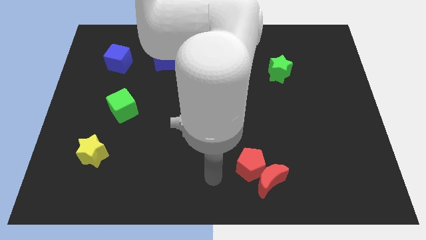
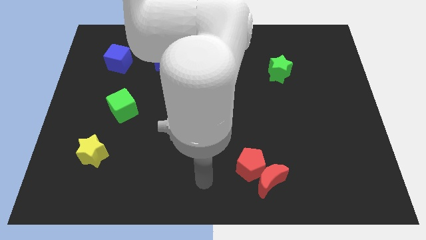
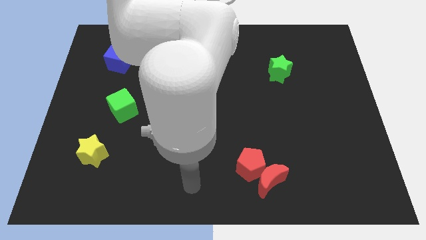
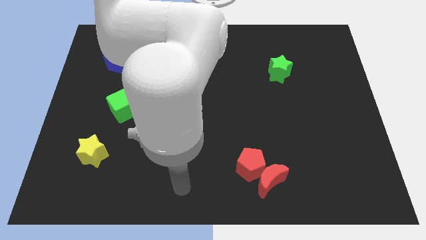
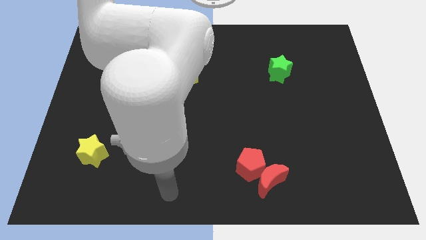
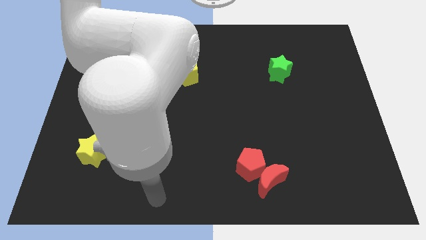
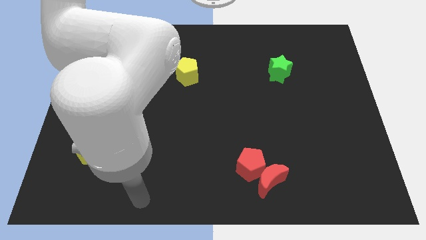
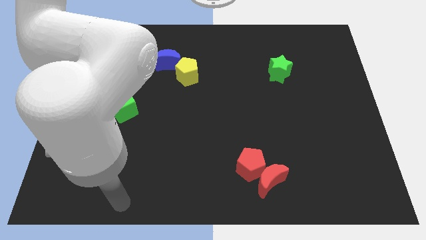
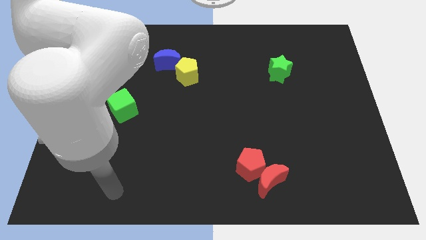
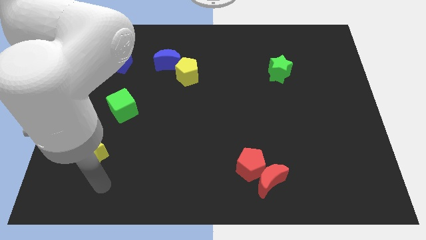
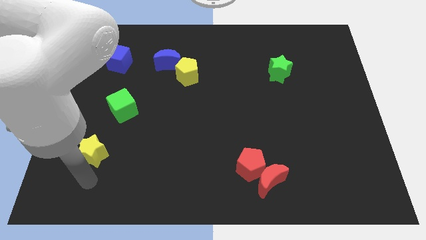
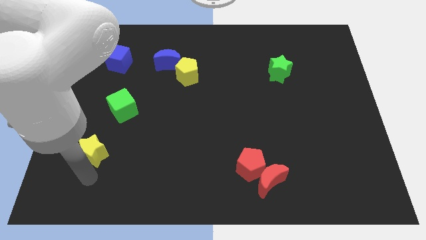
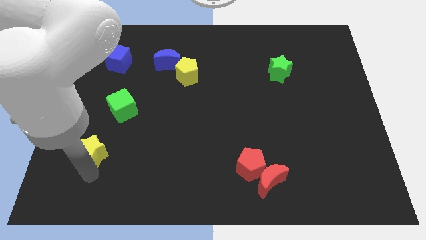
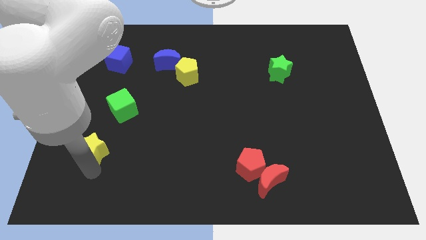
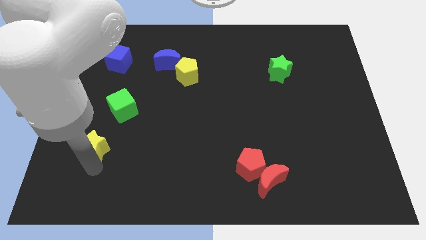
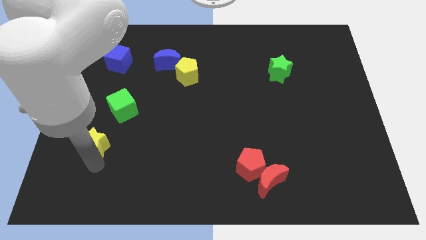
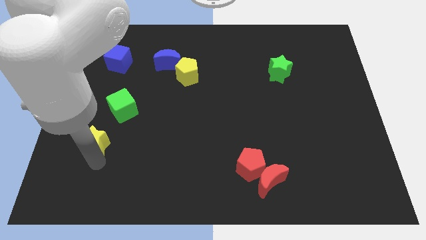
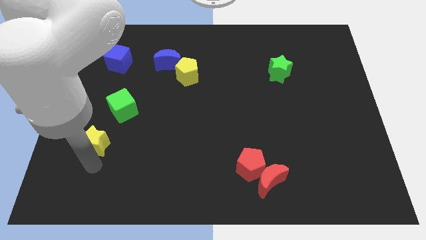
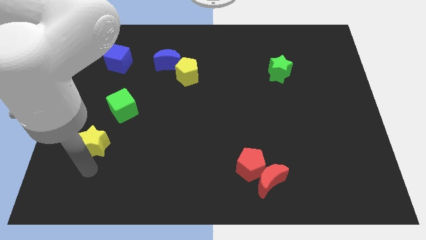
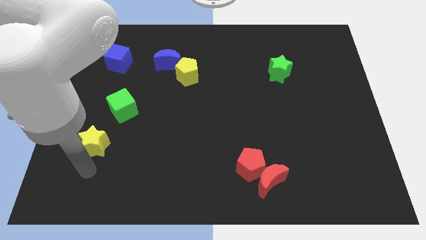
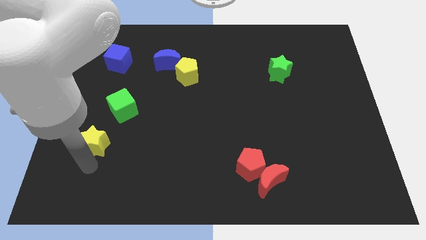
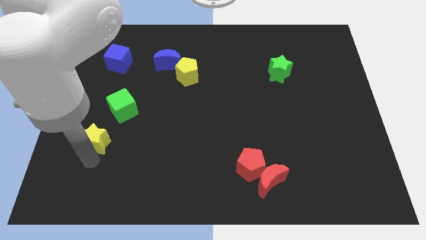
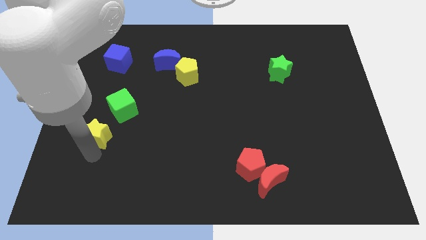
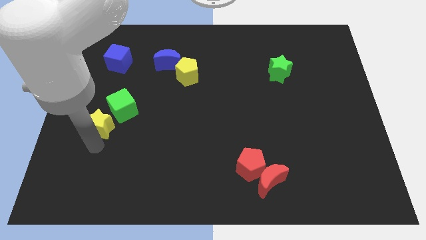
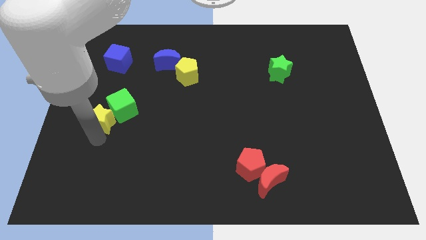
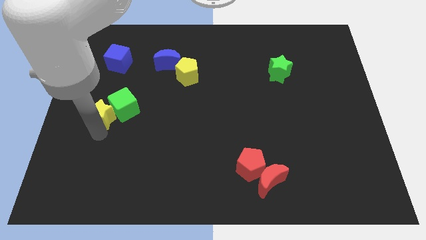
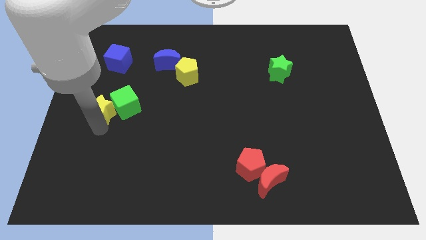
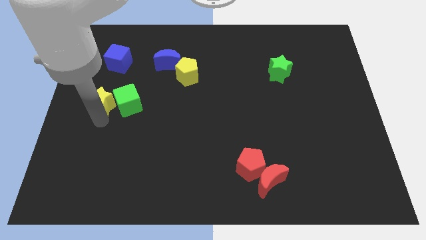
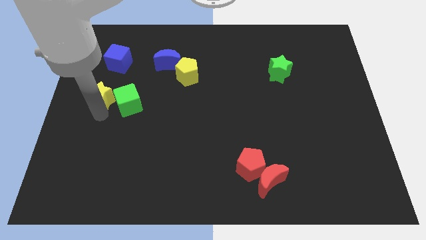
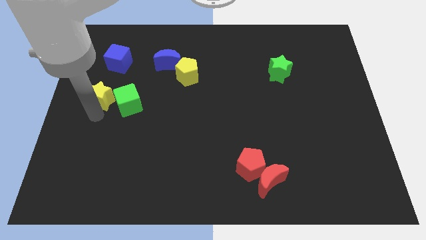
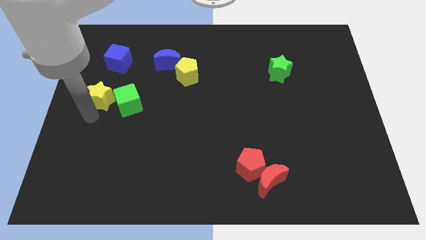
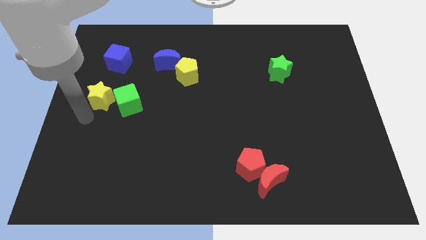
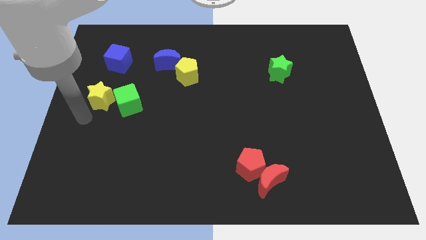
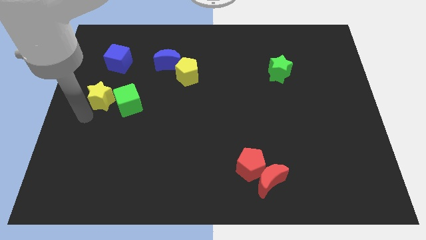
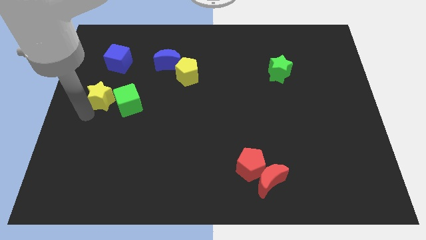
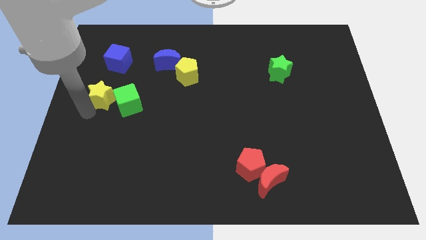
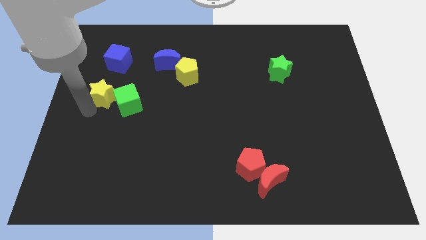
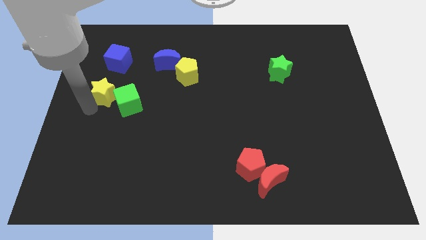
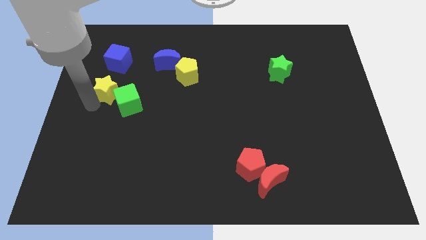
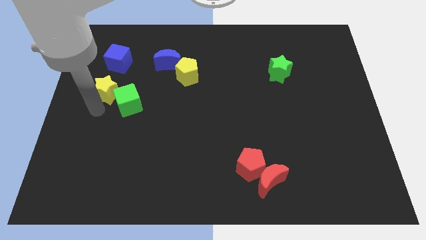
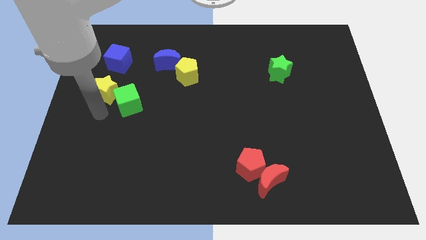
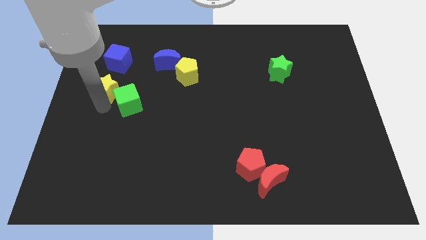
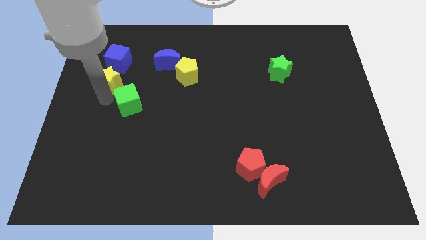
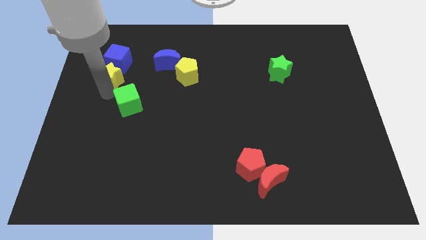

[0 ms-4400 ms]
put the yellow star to the blue cube

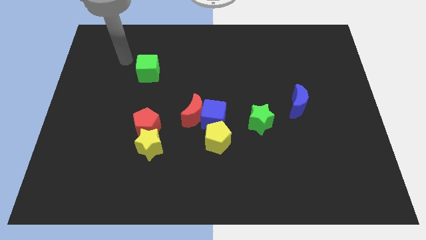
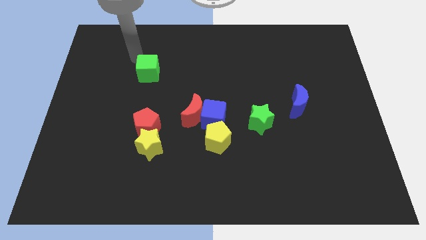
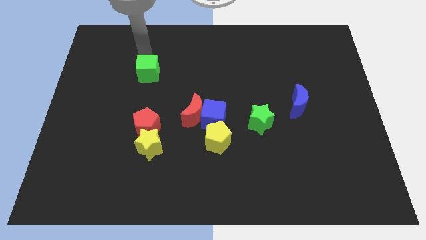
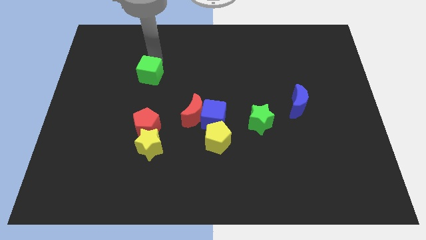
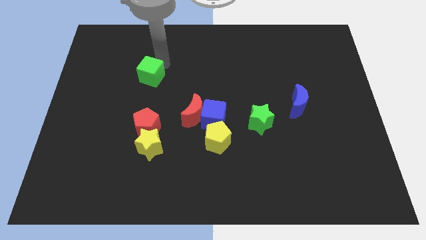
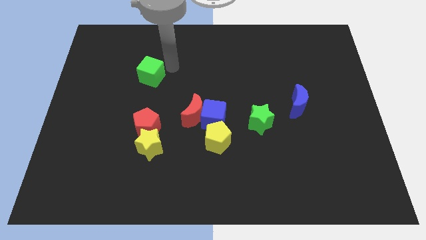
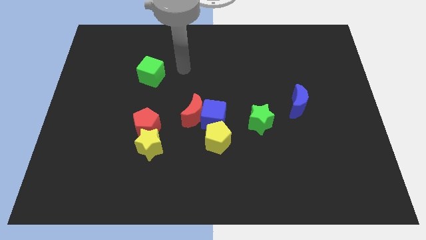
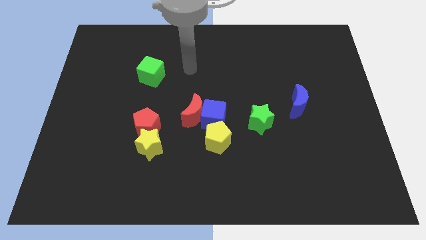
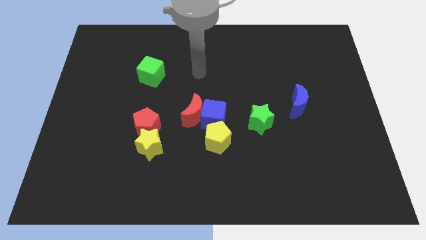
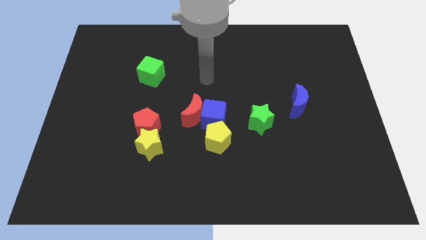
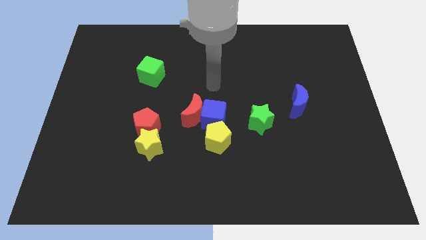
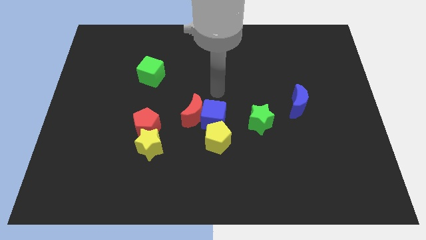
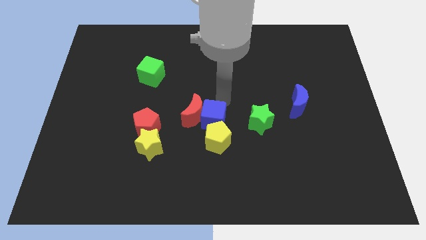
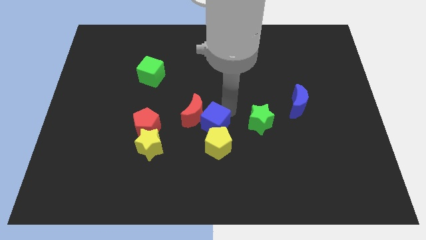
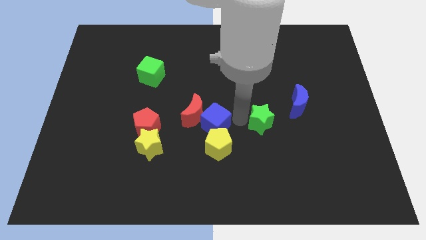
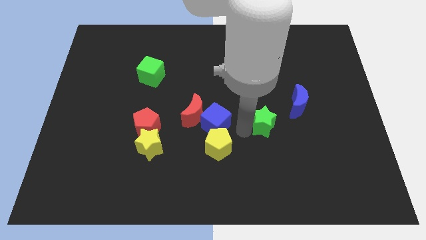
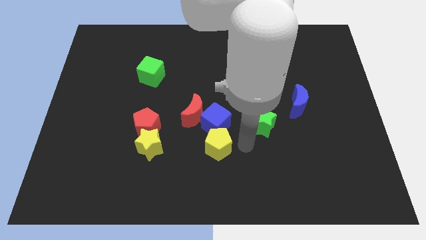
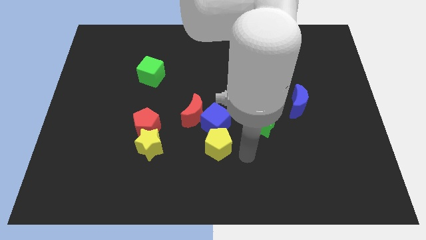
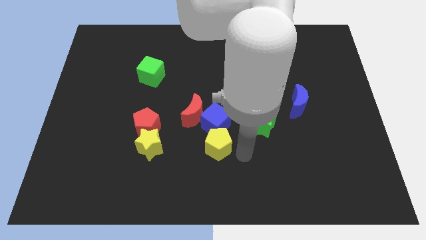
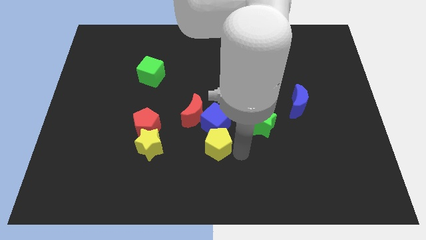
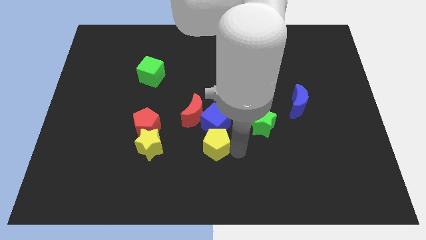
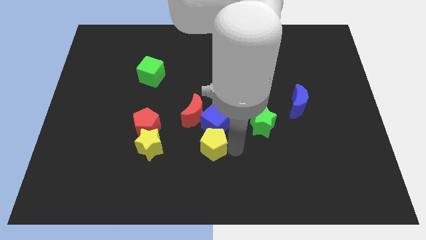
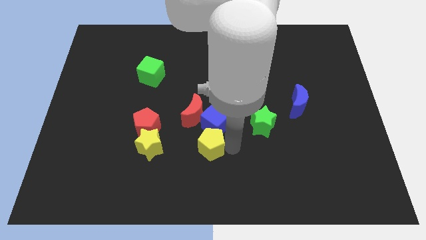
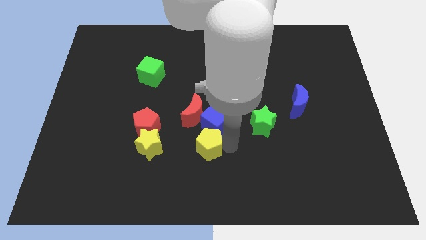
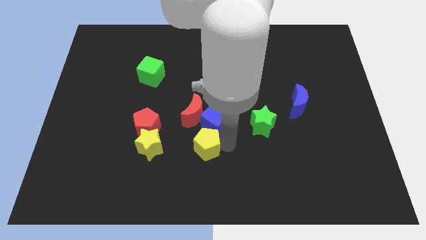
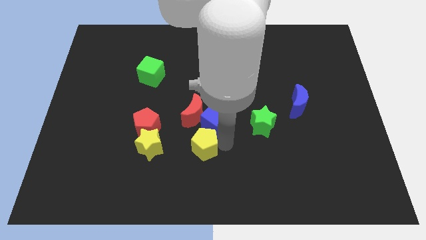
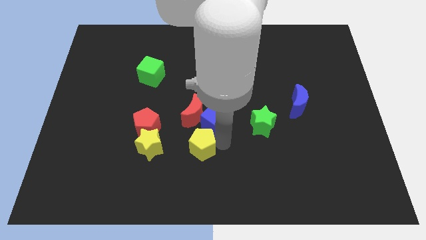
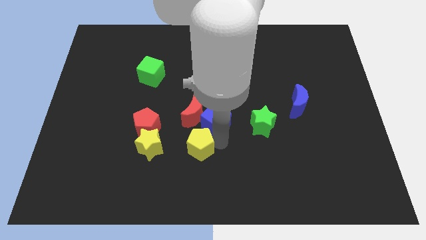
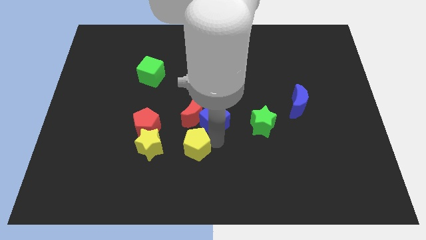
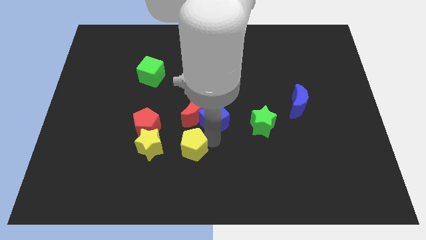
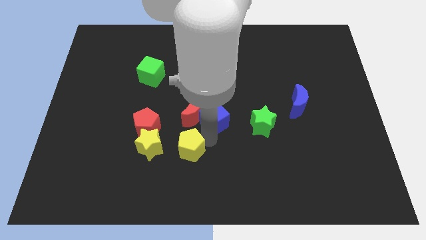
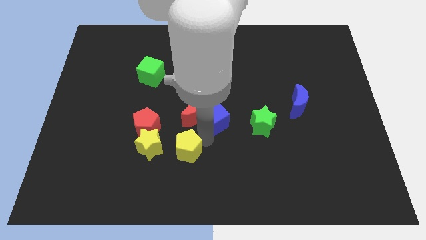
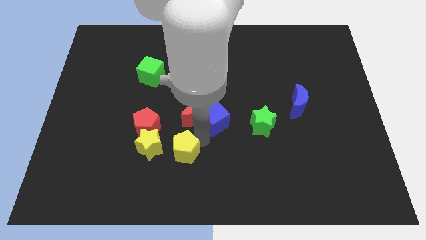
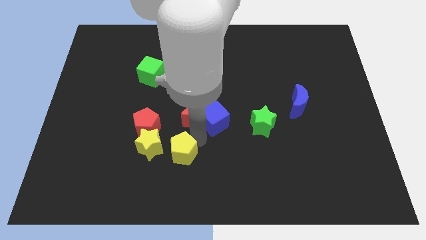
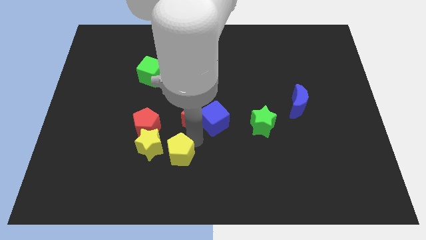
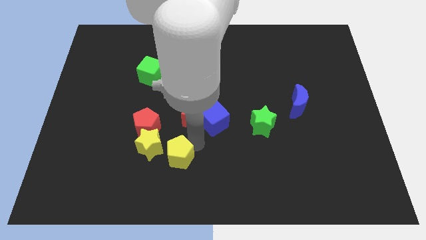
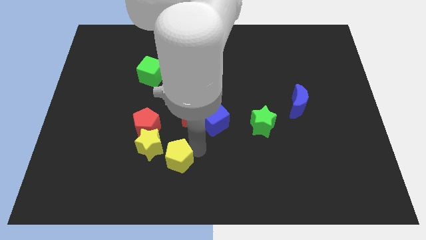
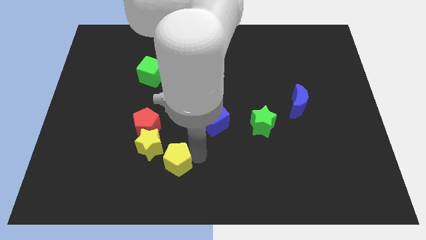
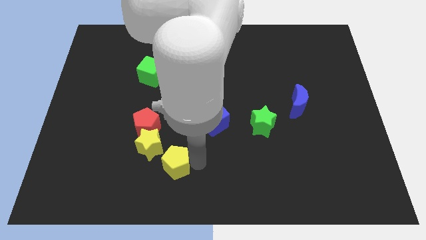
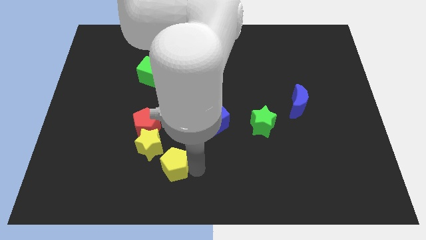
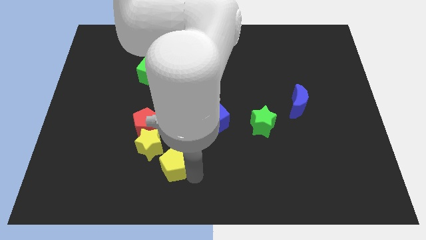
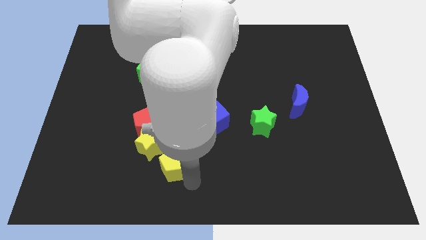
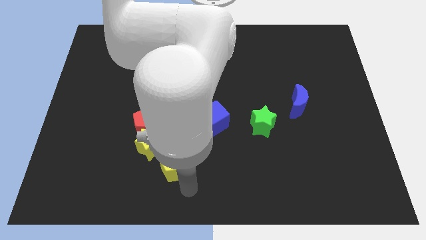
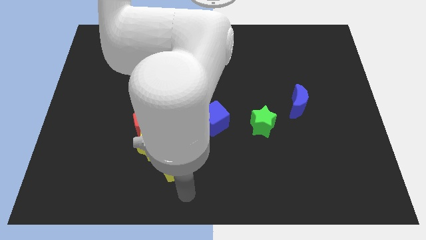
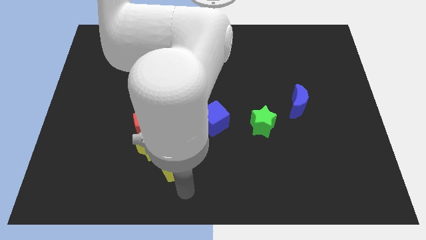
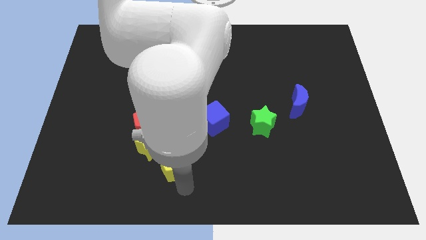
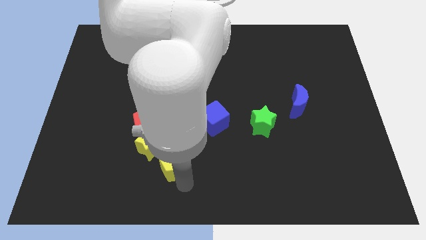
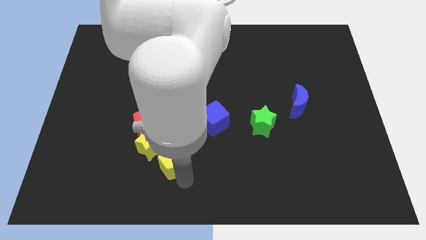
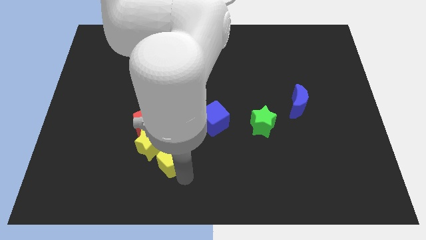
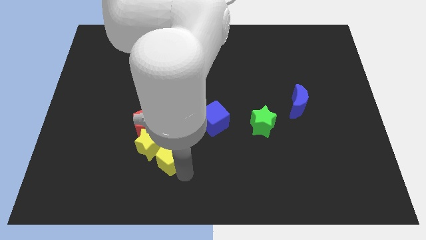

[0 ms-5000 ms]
put the yellow pentagon towards the yellow star
